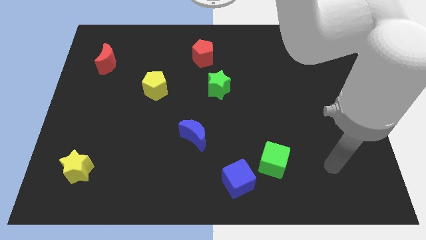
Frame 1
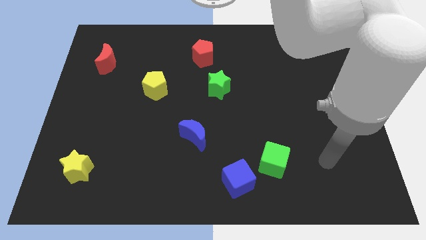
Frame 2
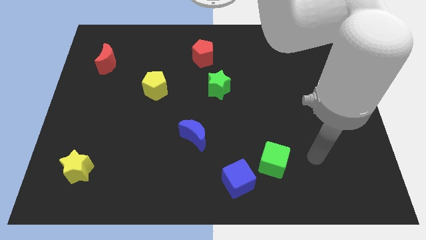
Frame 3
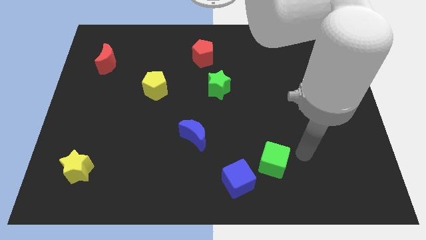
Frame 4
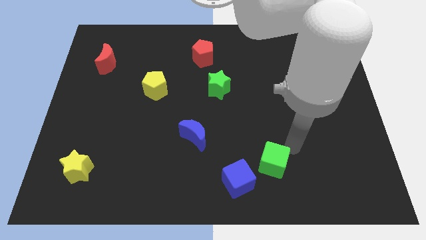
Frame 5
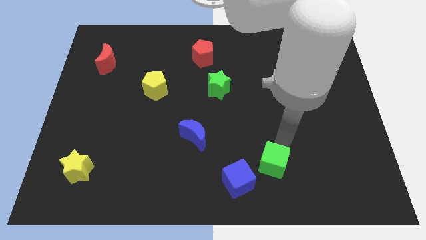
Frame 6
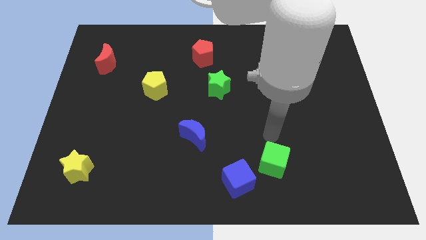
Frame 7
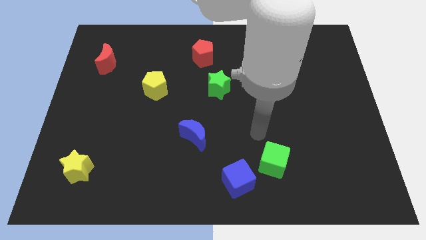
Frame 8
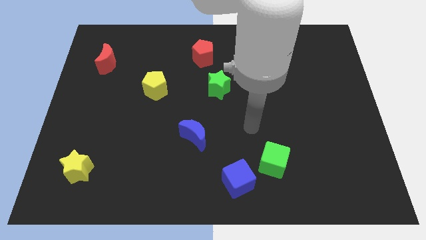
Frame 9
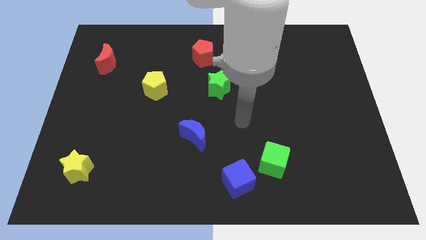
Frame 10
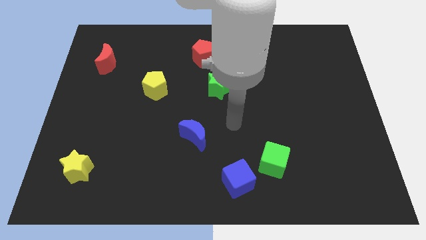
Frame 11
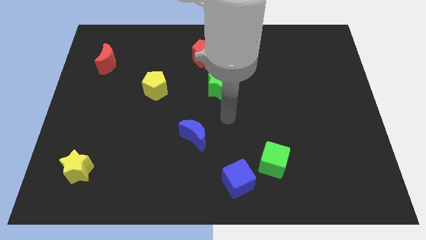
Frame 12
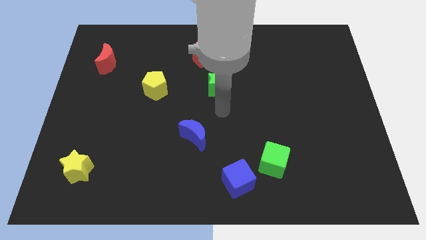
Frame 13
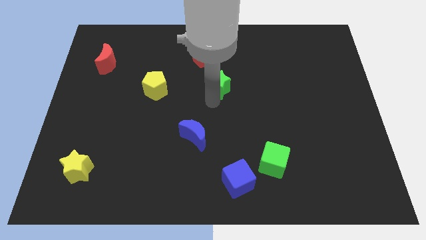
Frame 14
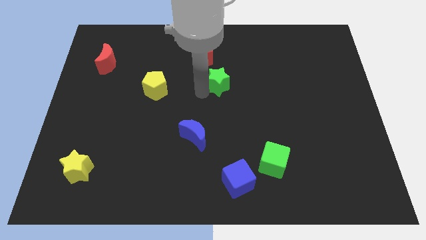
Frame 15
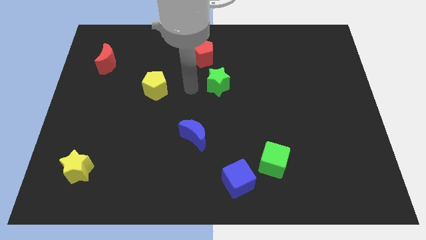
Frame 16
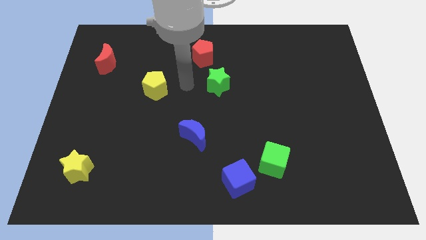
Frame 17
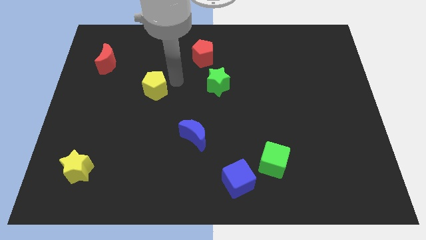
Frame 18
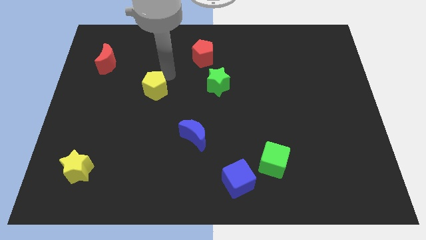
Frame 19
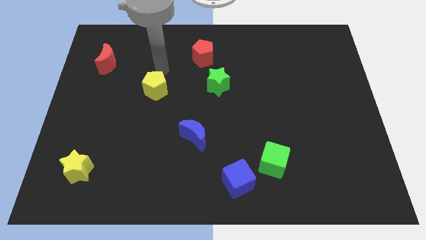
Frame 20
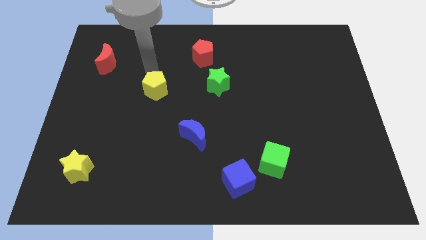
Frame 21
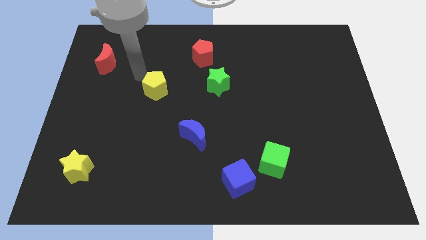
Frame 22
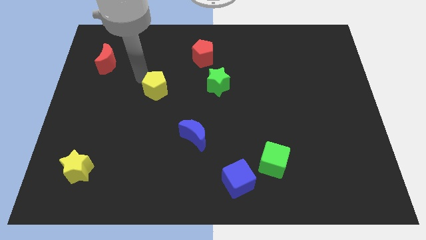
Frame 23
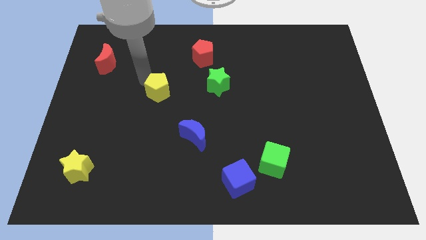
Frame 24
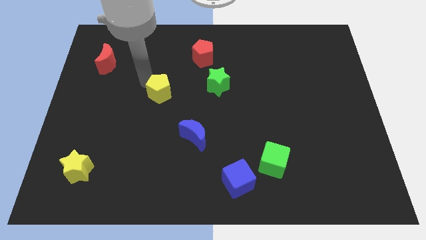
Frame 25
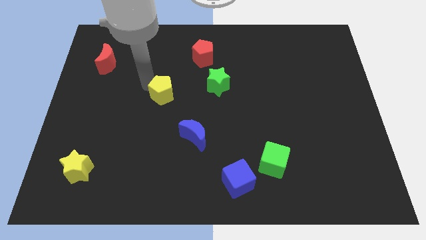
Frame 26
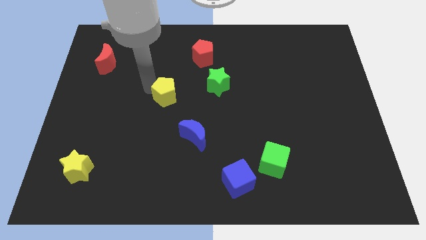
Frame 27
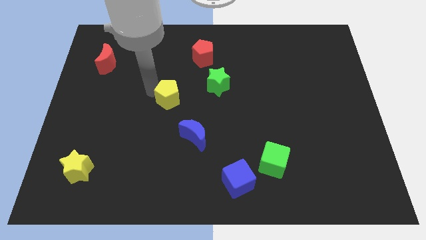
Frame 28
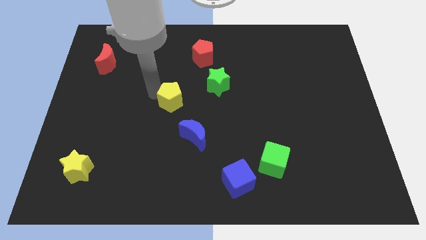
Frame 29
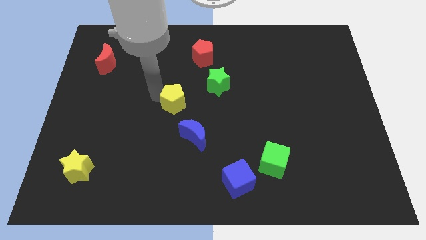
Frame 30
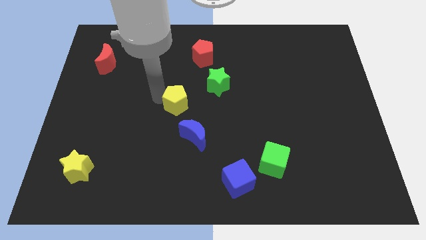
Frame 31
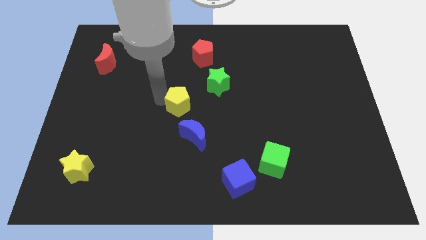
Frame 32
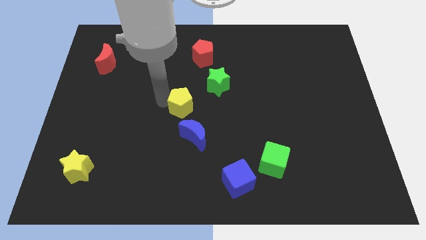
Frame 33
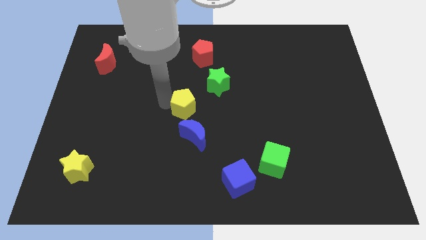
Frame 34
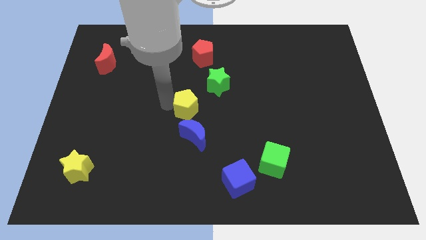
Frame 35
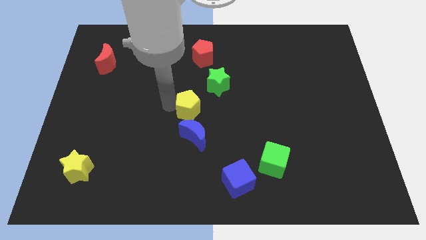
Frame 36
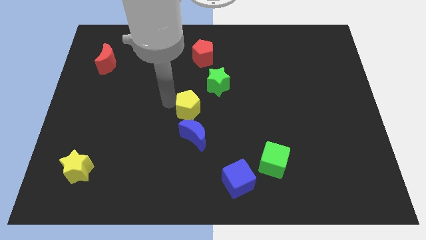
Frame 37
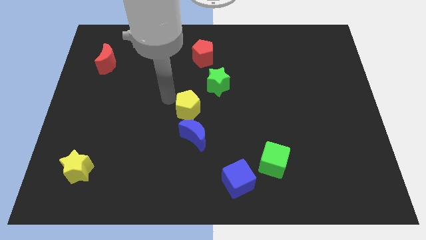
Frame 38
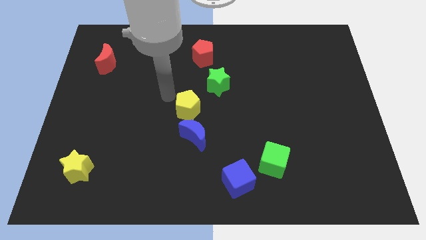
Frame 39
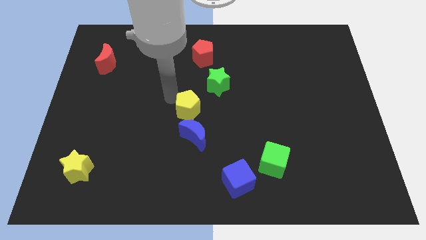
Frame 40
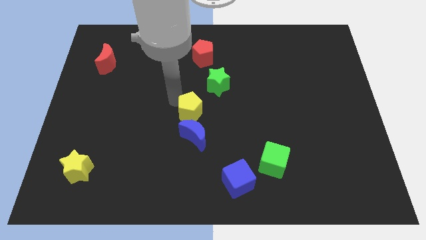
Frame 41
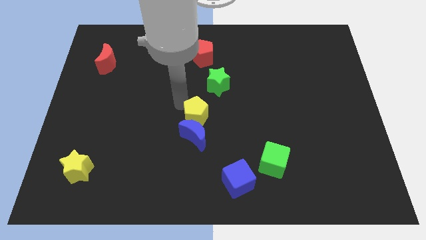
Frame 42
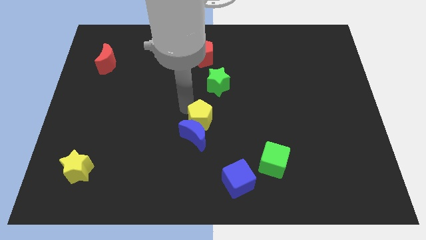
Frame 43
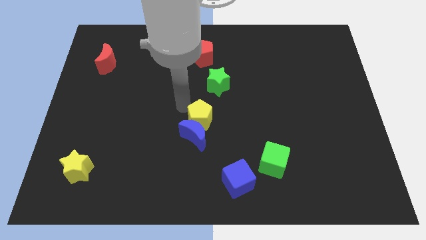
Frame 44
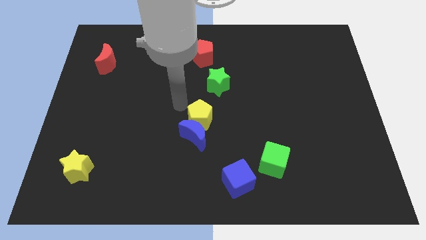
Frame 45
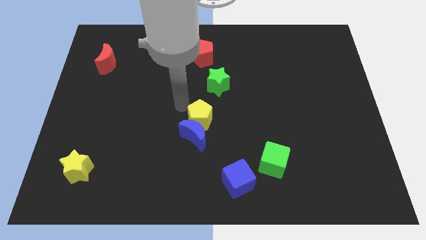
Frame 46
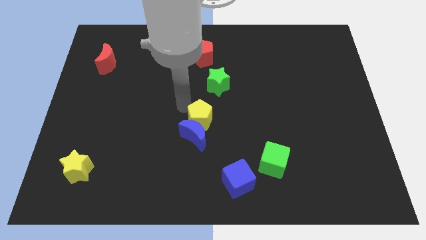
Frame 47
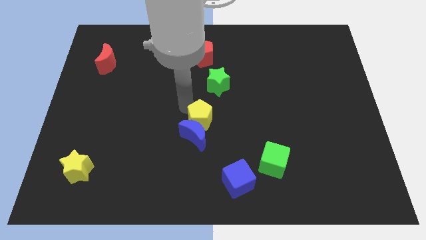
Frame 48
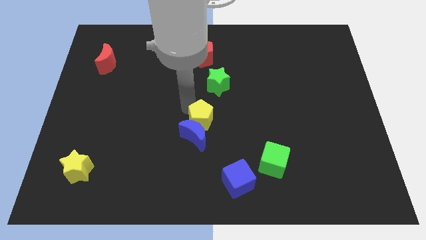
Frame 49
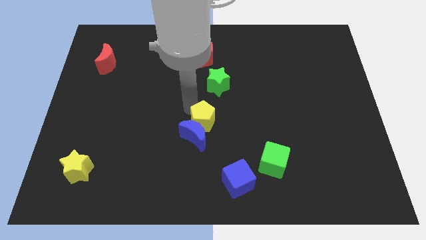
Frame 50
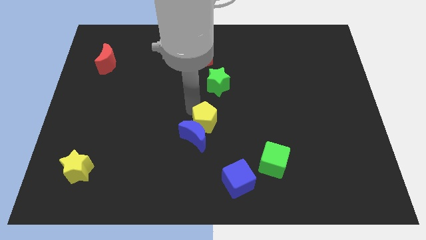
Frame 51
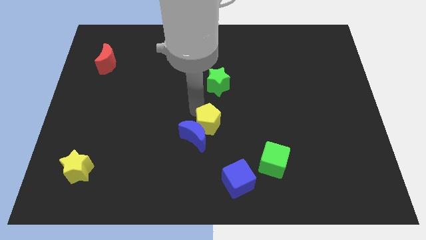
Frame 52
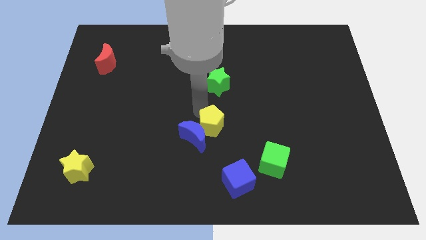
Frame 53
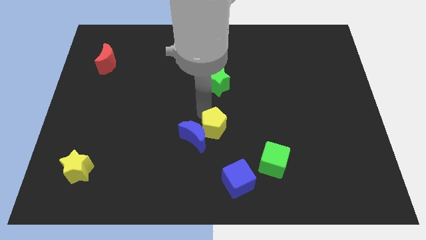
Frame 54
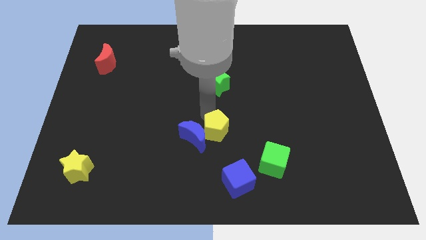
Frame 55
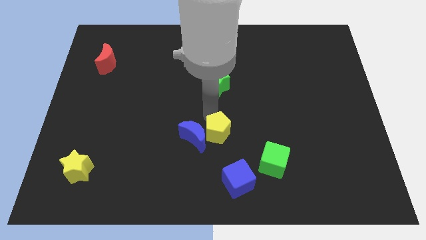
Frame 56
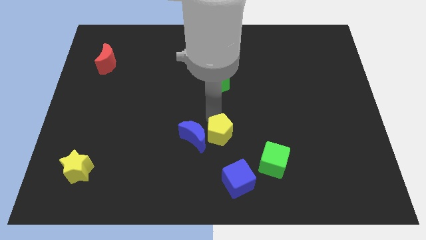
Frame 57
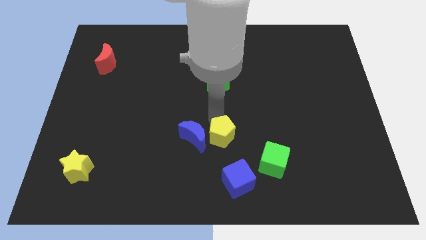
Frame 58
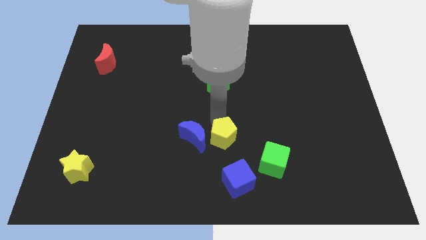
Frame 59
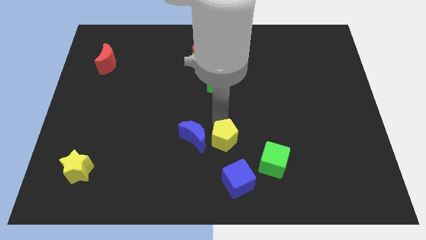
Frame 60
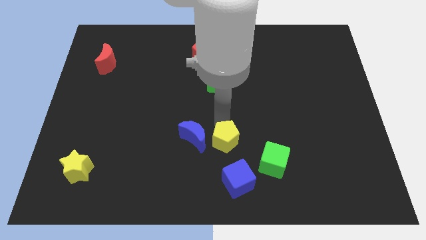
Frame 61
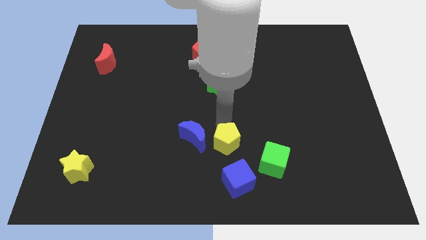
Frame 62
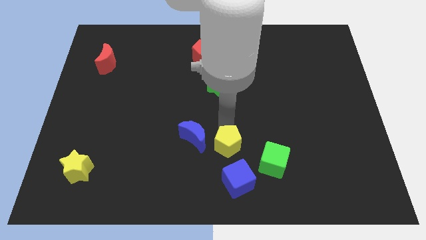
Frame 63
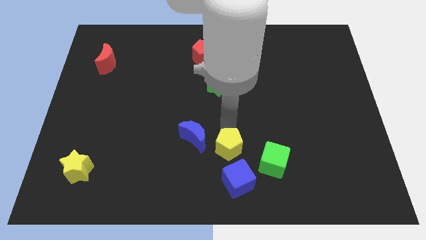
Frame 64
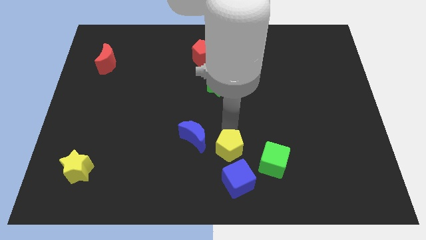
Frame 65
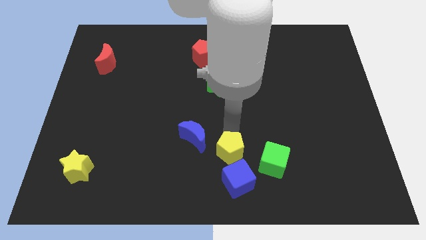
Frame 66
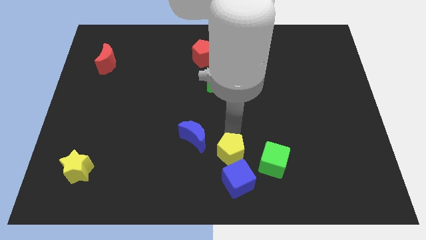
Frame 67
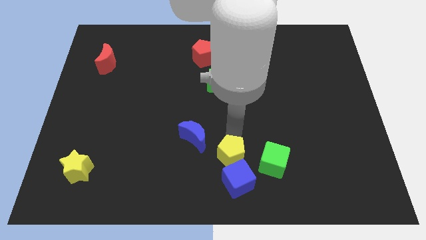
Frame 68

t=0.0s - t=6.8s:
slide the yellow pentagon close to the blue cube
